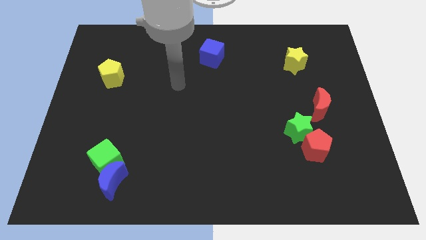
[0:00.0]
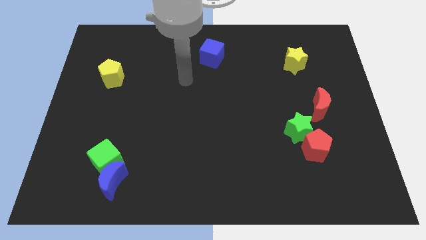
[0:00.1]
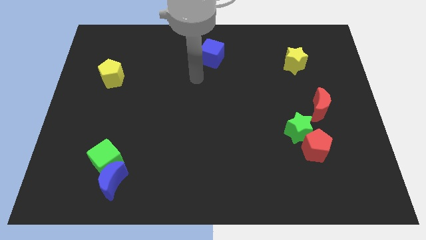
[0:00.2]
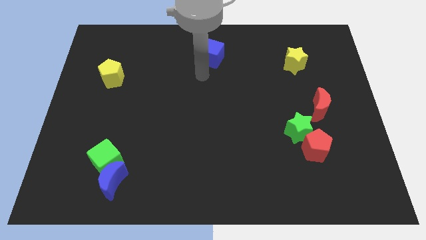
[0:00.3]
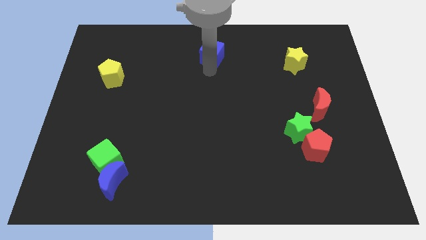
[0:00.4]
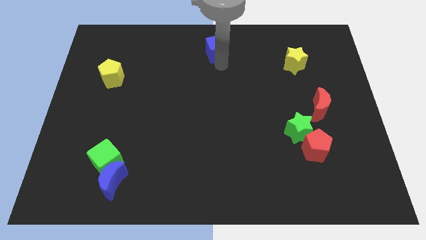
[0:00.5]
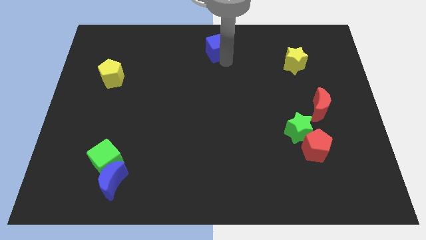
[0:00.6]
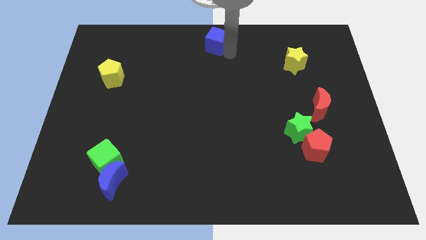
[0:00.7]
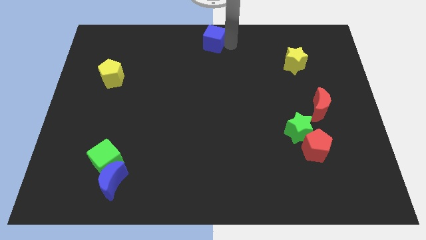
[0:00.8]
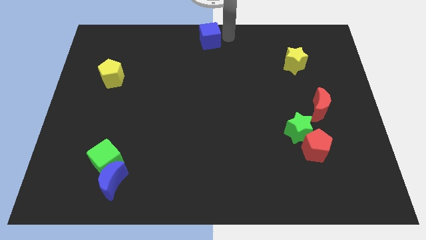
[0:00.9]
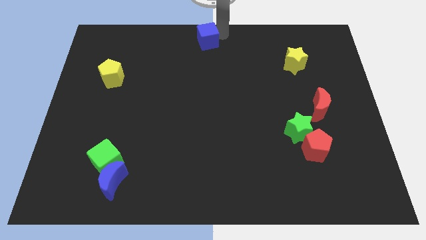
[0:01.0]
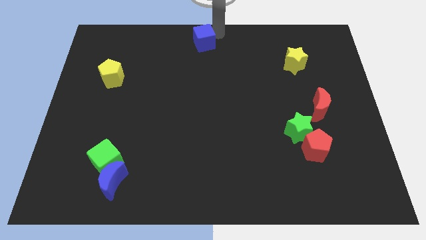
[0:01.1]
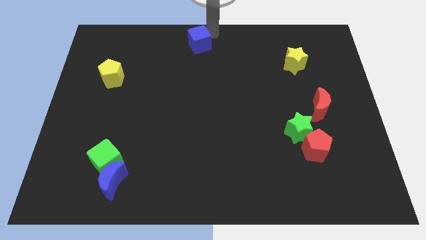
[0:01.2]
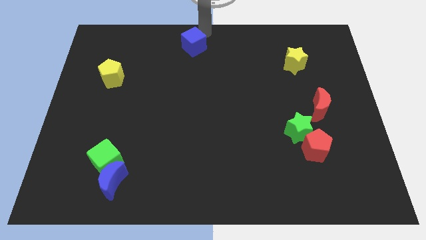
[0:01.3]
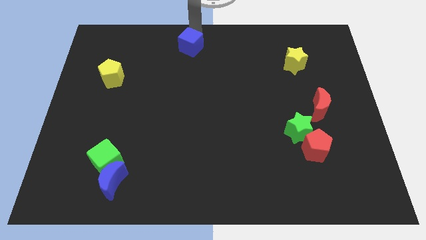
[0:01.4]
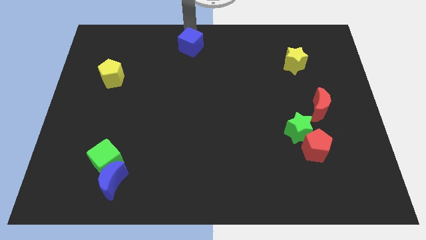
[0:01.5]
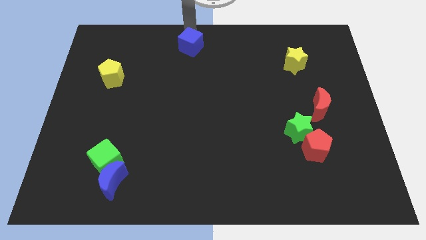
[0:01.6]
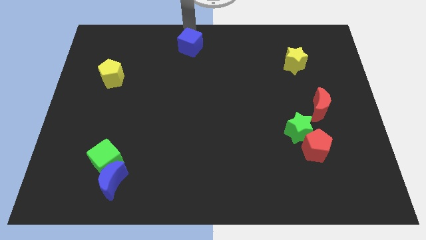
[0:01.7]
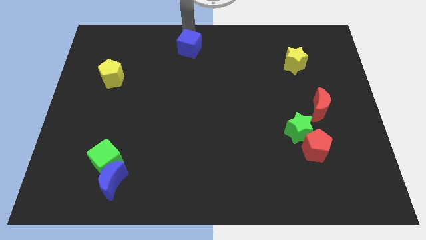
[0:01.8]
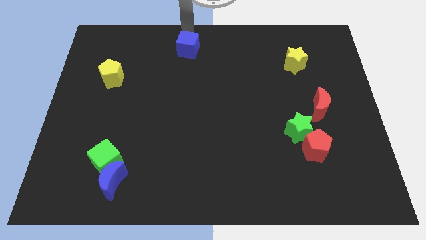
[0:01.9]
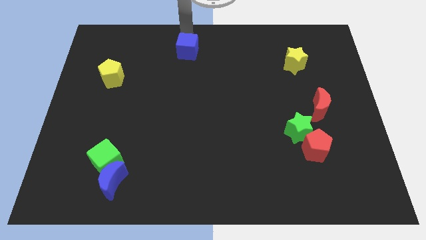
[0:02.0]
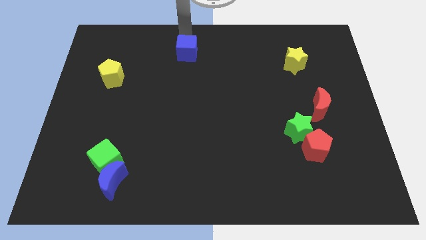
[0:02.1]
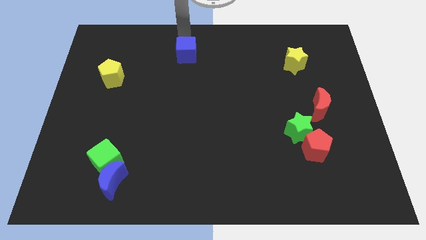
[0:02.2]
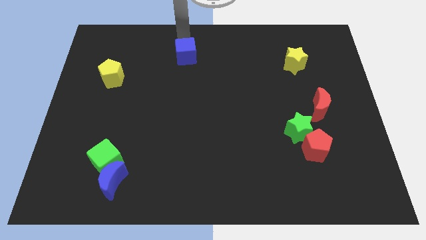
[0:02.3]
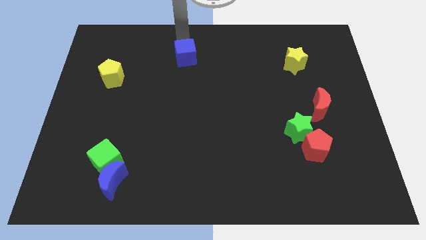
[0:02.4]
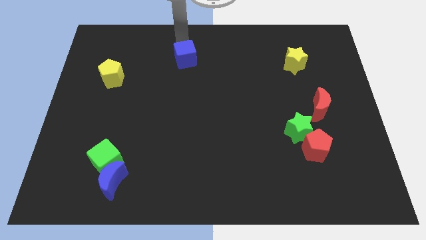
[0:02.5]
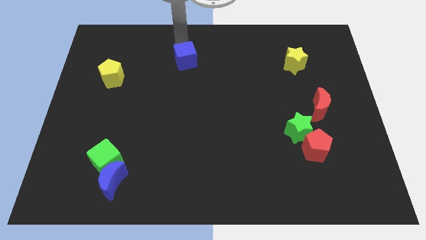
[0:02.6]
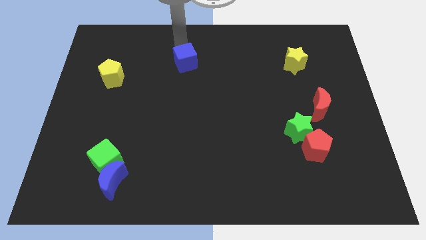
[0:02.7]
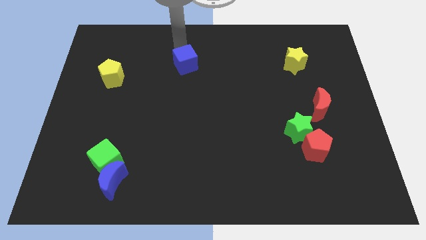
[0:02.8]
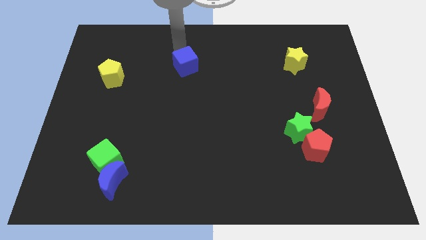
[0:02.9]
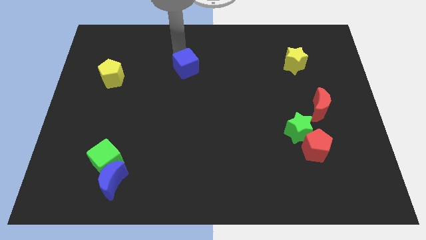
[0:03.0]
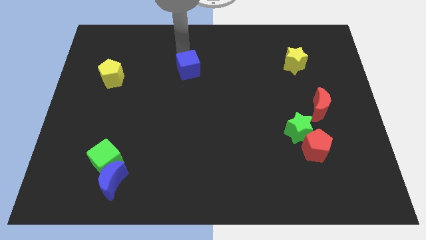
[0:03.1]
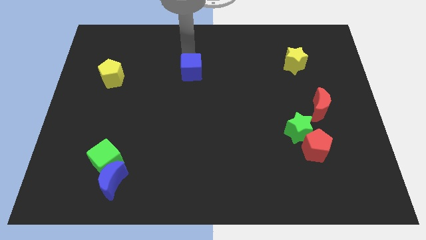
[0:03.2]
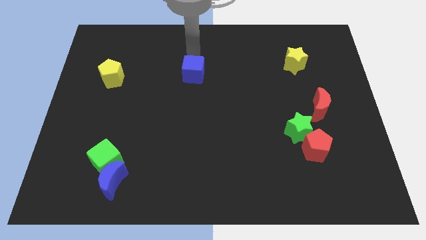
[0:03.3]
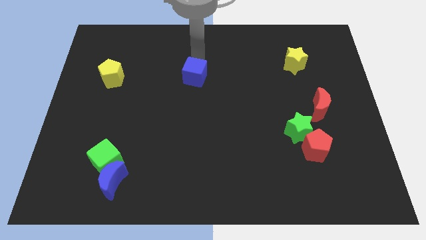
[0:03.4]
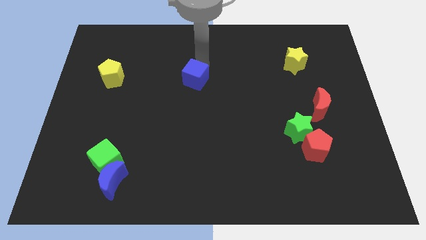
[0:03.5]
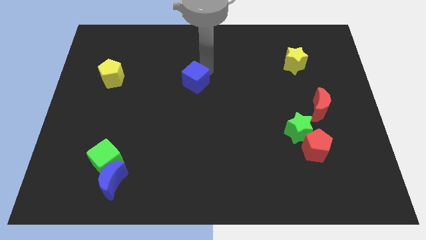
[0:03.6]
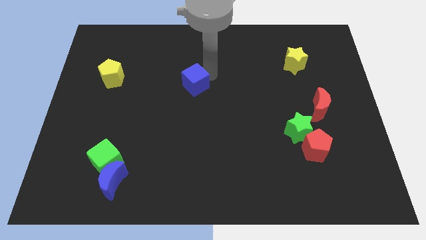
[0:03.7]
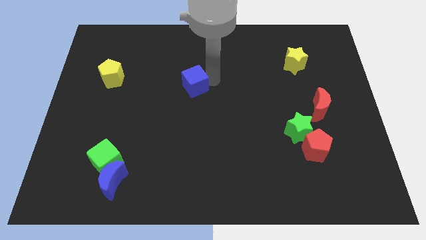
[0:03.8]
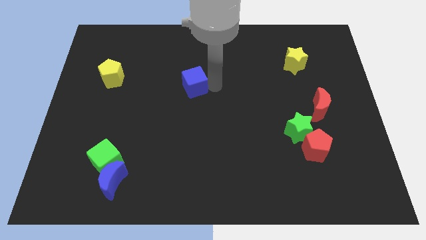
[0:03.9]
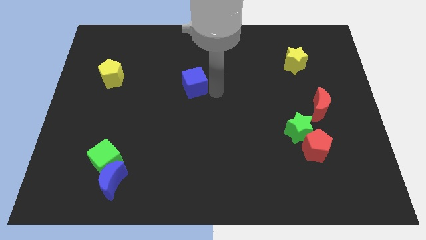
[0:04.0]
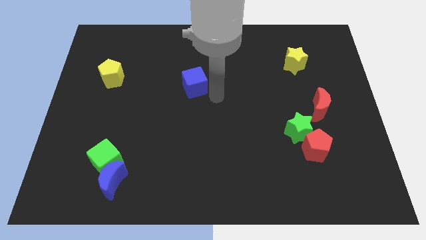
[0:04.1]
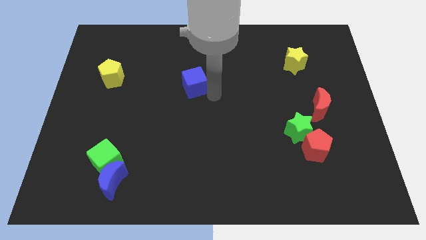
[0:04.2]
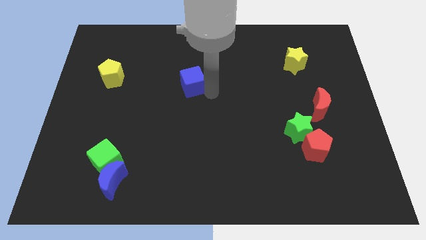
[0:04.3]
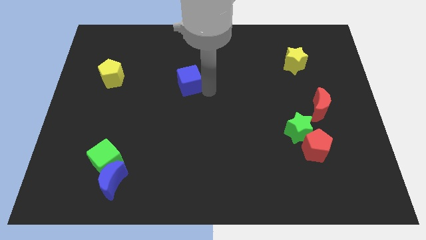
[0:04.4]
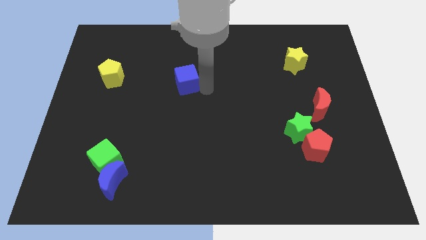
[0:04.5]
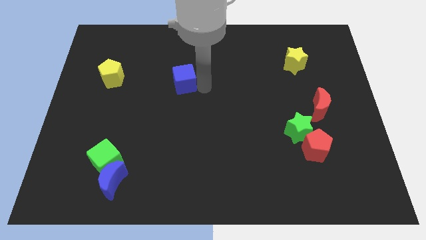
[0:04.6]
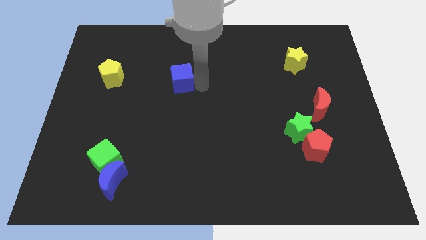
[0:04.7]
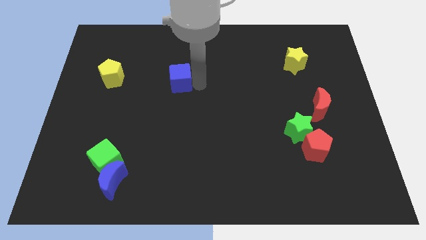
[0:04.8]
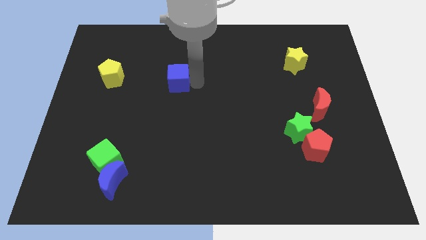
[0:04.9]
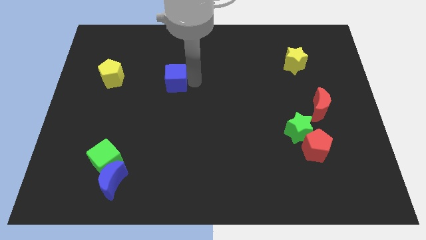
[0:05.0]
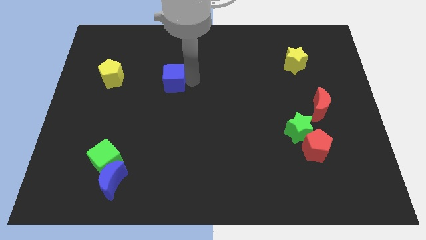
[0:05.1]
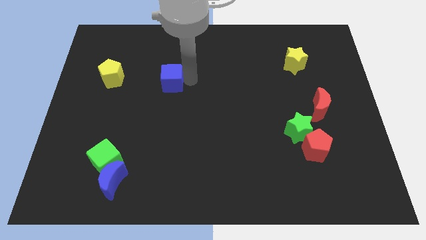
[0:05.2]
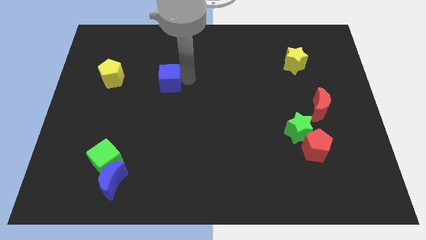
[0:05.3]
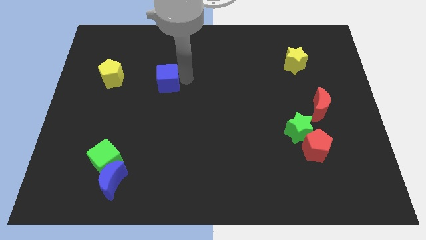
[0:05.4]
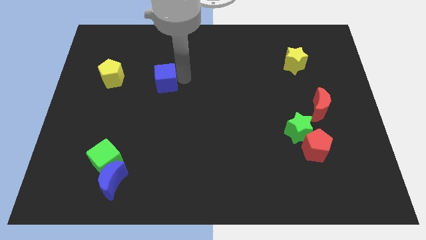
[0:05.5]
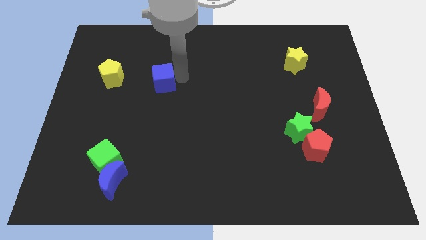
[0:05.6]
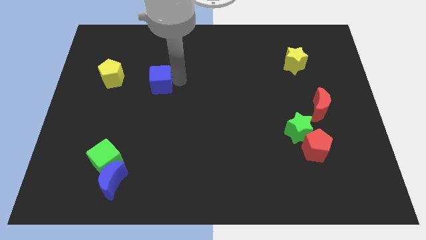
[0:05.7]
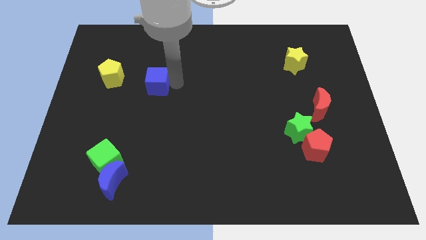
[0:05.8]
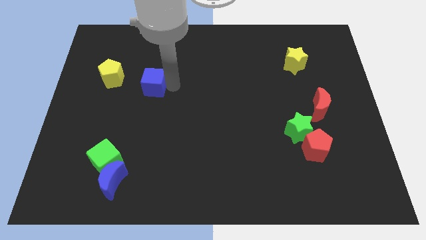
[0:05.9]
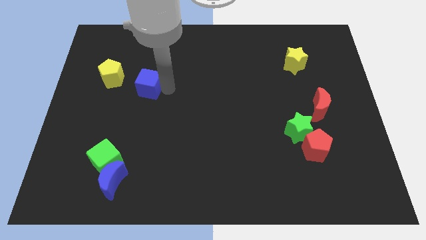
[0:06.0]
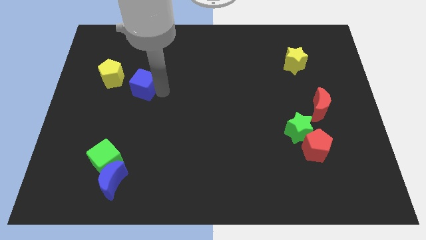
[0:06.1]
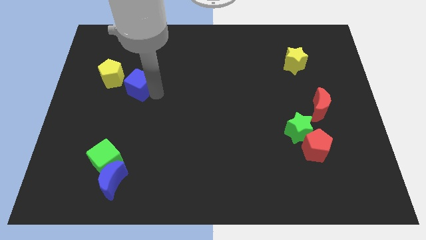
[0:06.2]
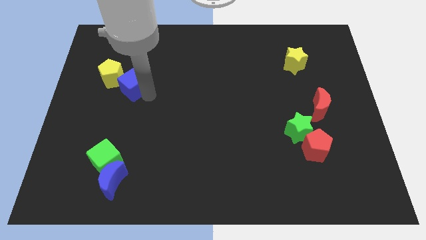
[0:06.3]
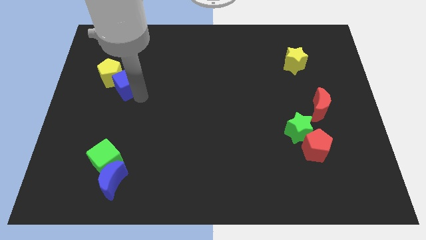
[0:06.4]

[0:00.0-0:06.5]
slide the blue cube next to the yellow pentagon

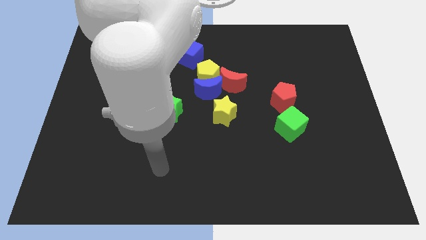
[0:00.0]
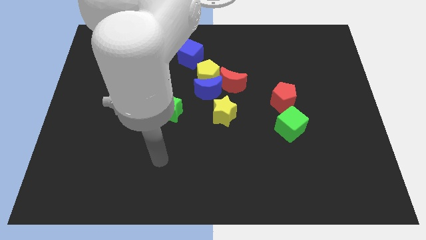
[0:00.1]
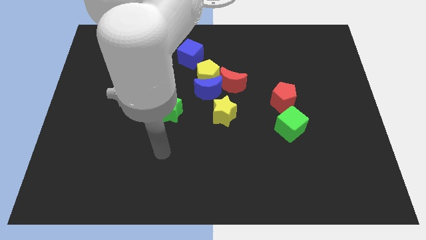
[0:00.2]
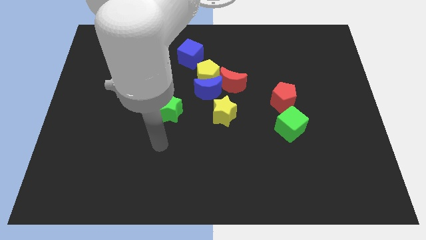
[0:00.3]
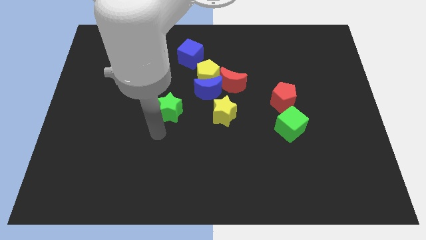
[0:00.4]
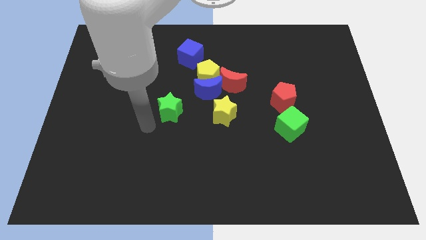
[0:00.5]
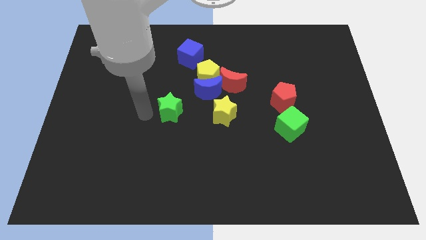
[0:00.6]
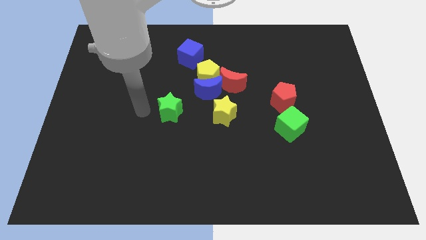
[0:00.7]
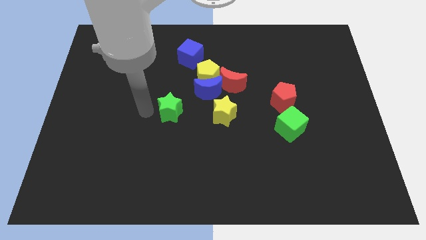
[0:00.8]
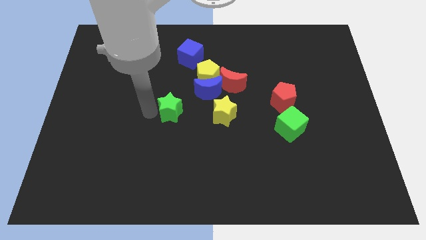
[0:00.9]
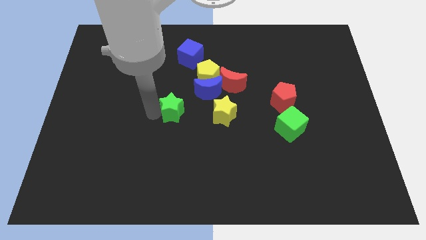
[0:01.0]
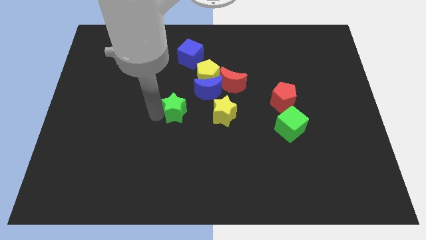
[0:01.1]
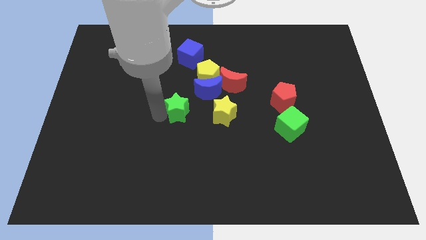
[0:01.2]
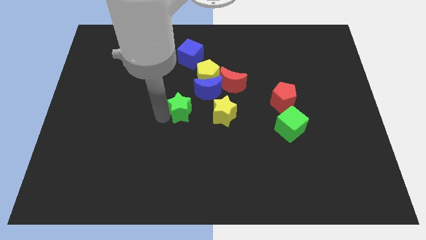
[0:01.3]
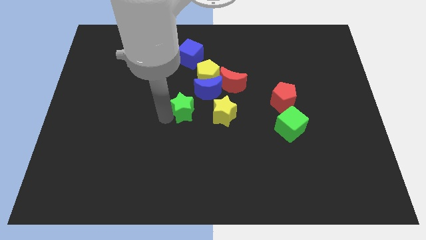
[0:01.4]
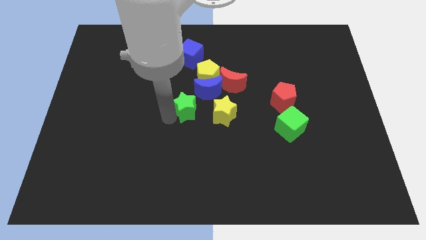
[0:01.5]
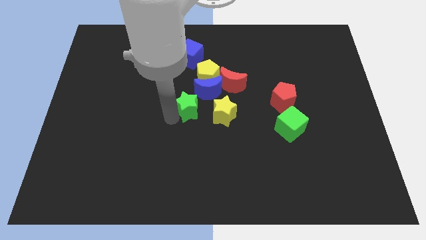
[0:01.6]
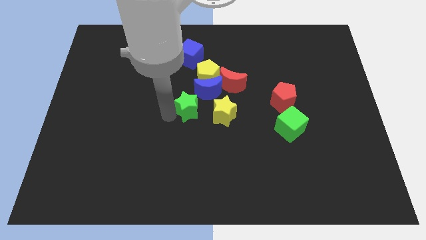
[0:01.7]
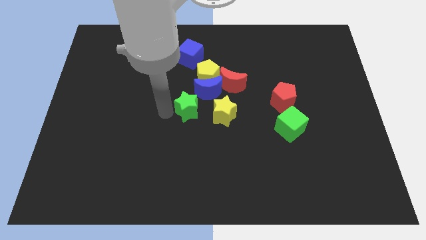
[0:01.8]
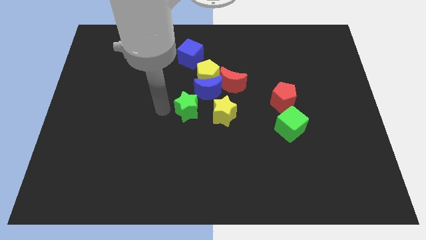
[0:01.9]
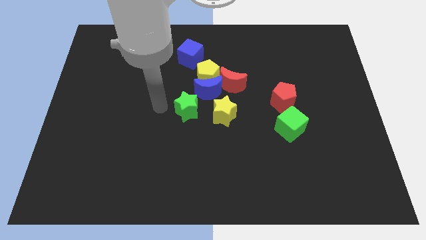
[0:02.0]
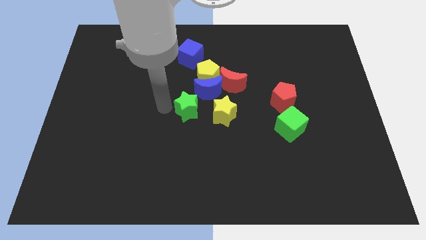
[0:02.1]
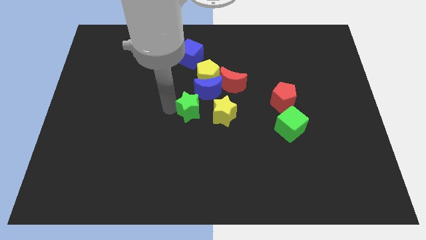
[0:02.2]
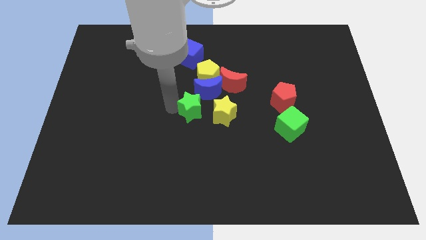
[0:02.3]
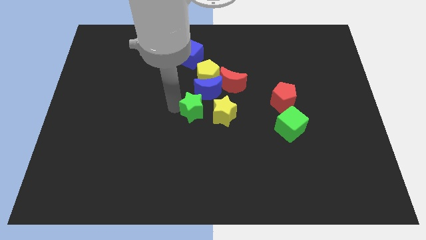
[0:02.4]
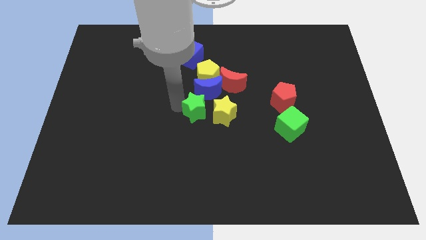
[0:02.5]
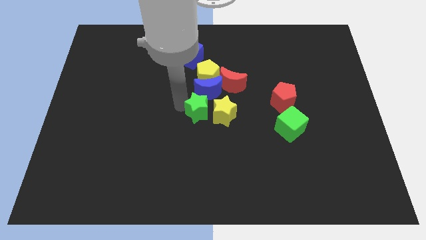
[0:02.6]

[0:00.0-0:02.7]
slide the green star close to the yellow star
